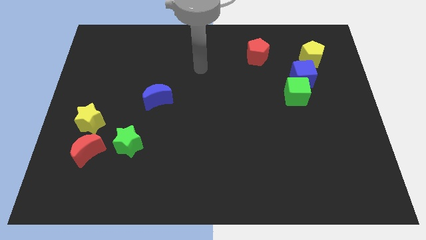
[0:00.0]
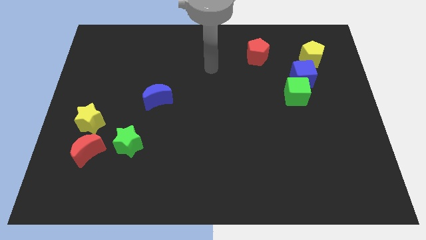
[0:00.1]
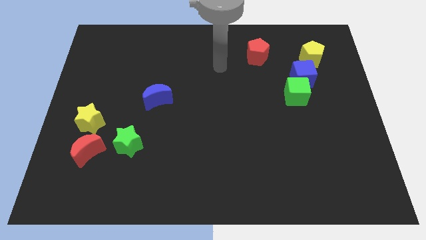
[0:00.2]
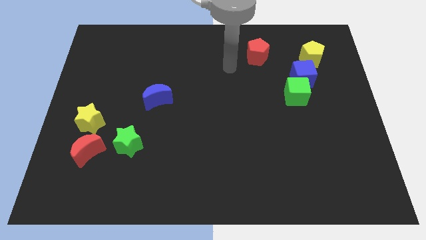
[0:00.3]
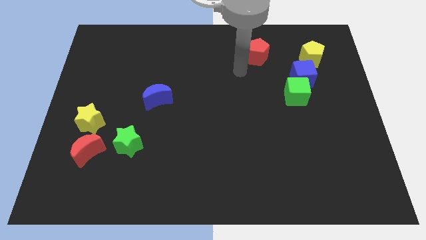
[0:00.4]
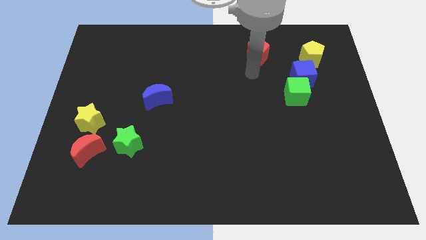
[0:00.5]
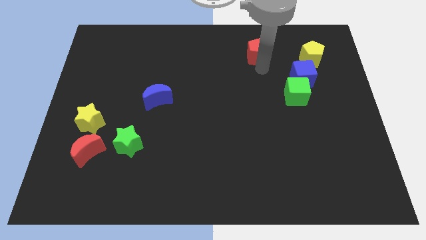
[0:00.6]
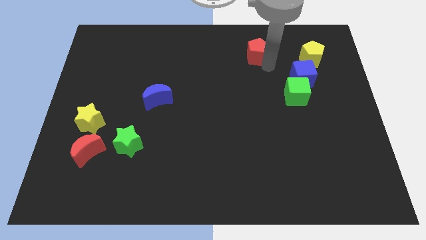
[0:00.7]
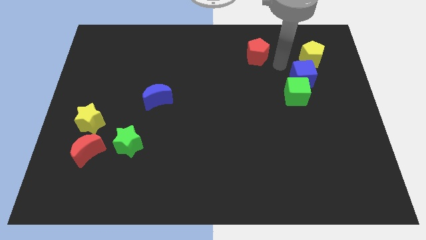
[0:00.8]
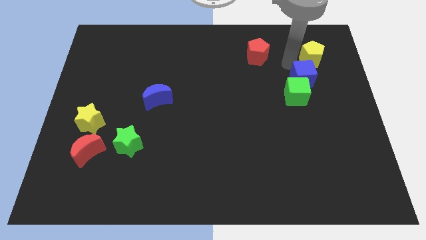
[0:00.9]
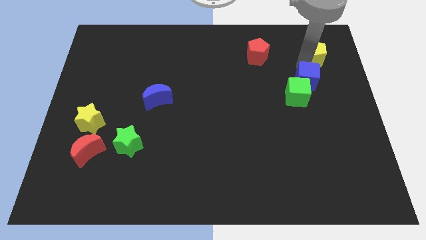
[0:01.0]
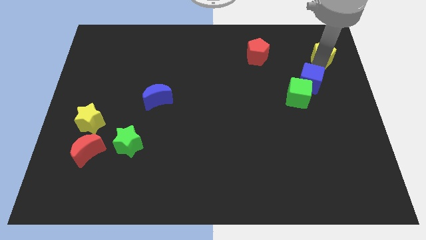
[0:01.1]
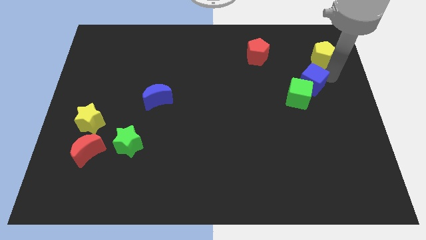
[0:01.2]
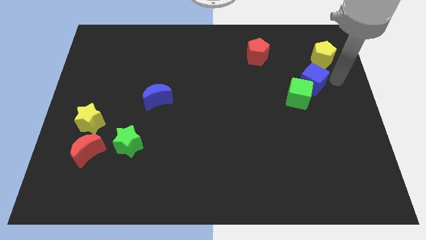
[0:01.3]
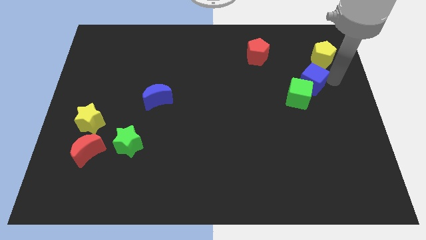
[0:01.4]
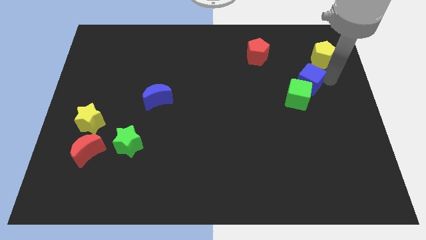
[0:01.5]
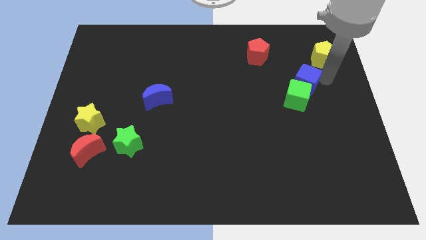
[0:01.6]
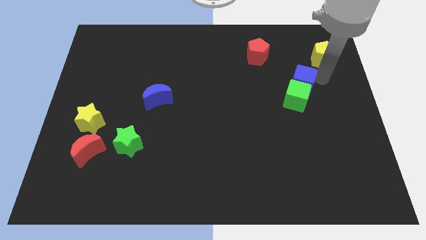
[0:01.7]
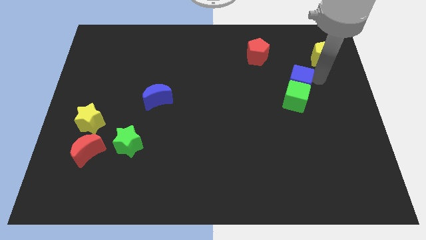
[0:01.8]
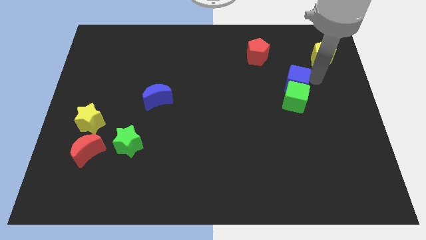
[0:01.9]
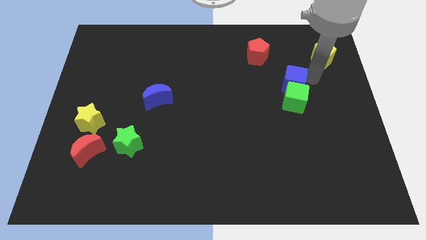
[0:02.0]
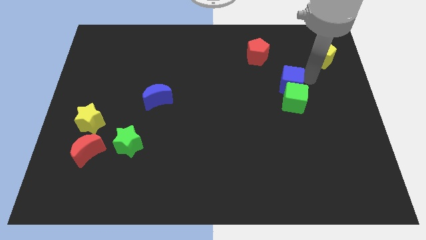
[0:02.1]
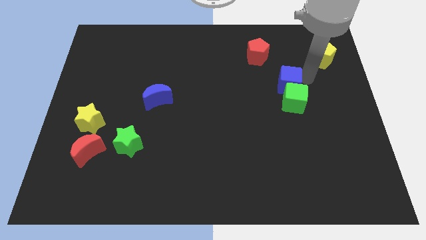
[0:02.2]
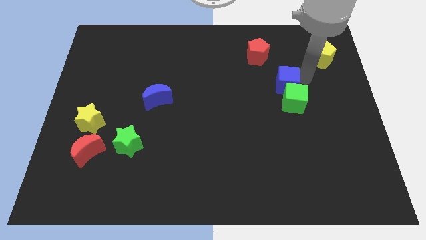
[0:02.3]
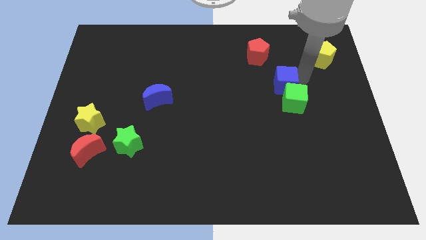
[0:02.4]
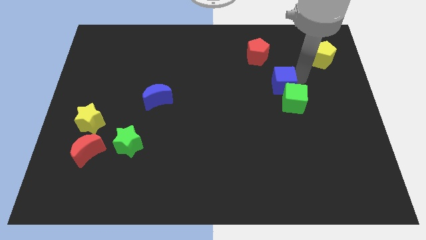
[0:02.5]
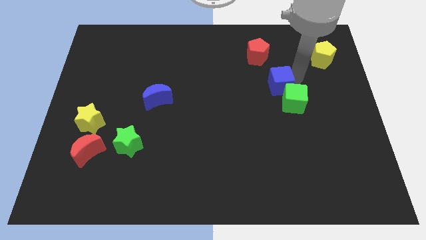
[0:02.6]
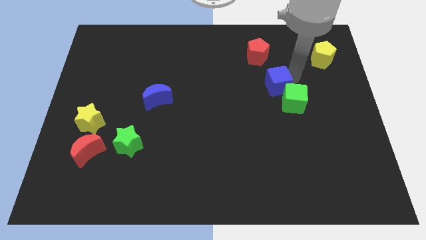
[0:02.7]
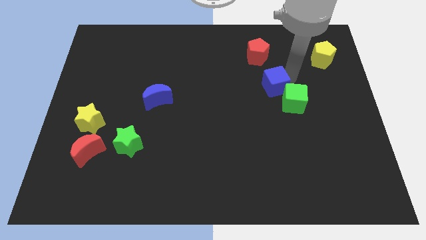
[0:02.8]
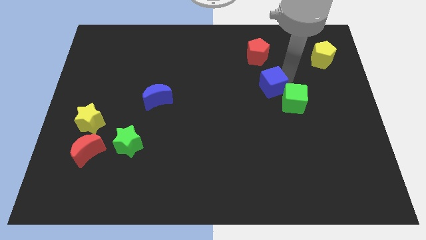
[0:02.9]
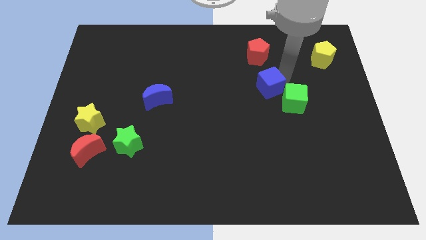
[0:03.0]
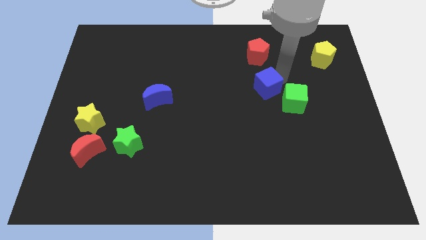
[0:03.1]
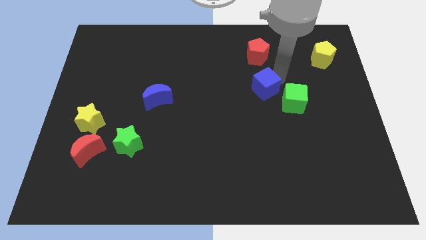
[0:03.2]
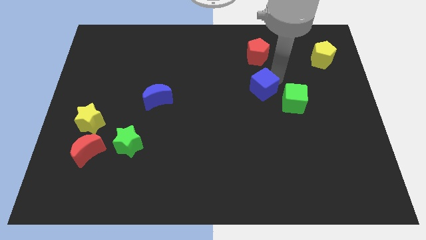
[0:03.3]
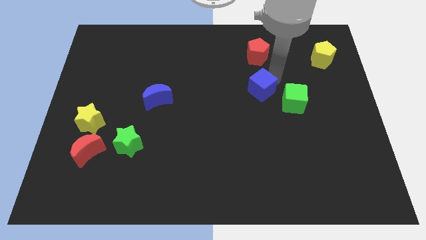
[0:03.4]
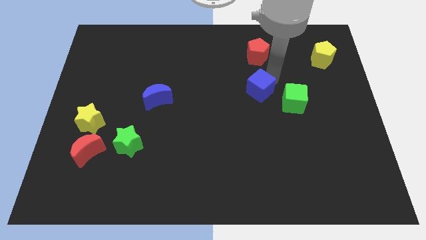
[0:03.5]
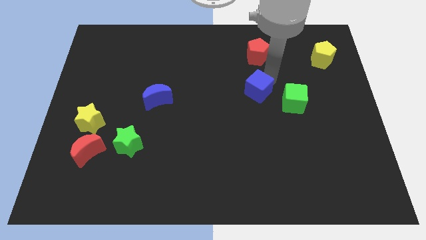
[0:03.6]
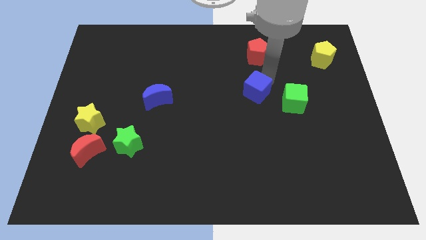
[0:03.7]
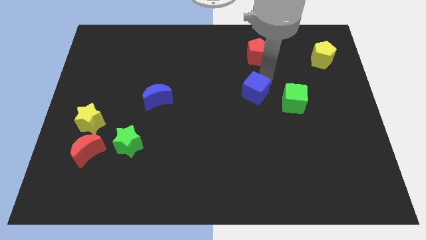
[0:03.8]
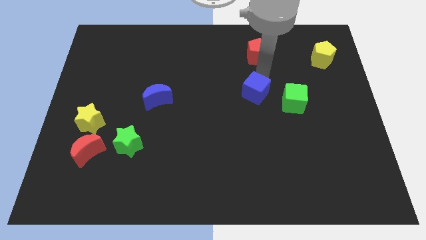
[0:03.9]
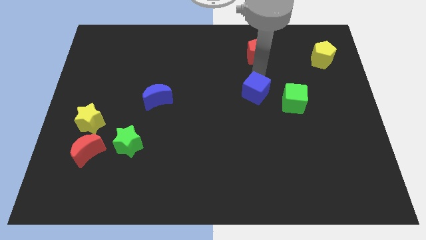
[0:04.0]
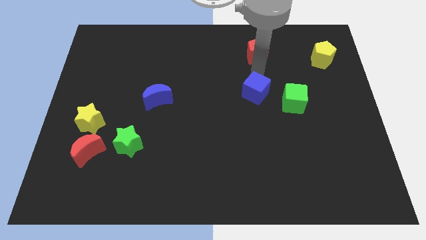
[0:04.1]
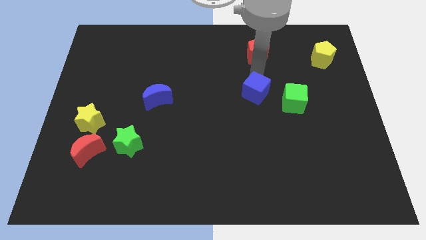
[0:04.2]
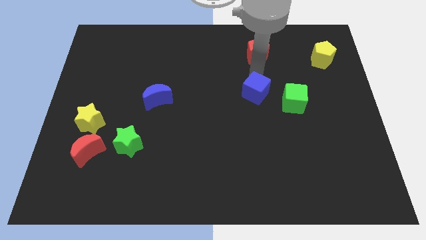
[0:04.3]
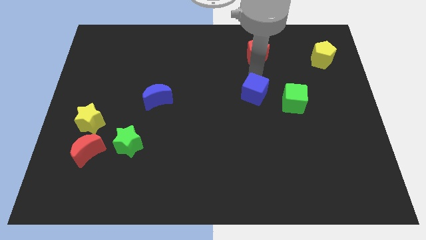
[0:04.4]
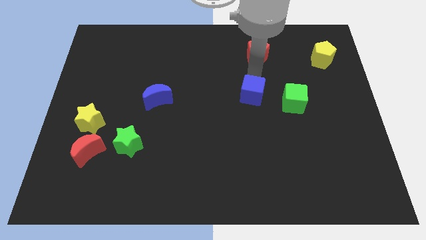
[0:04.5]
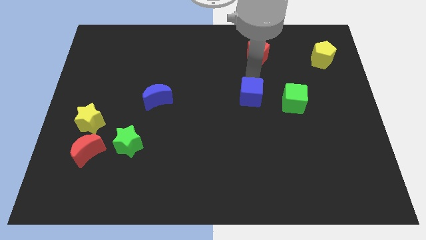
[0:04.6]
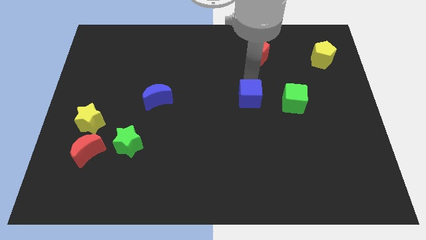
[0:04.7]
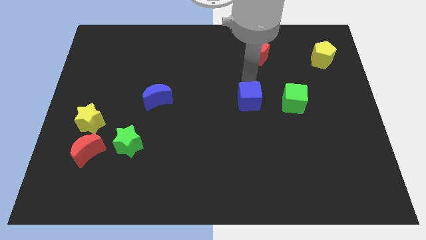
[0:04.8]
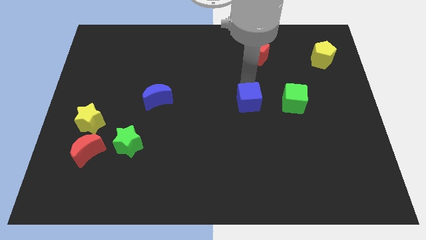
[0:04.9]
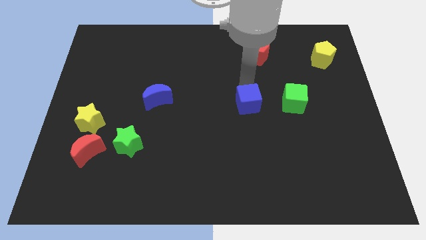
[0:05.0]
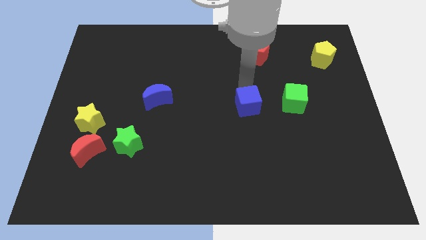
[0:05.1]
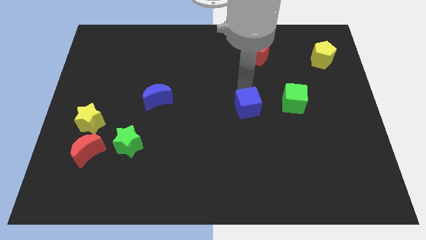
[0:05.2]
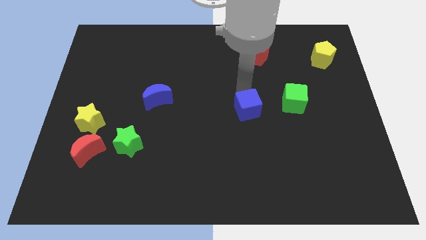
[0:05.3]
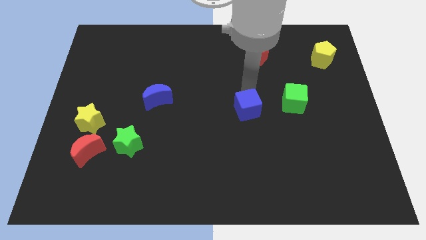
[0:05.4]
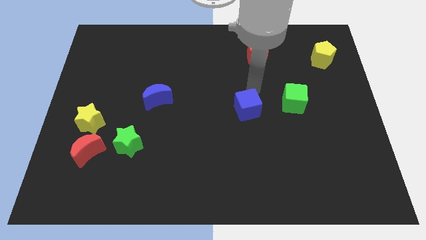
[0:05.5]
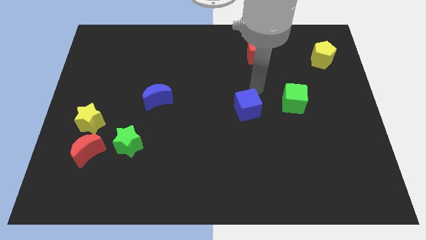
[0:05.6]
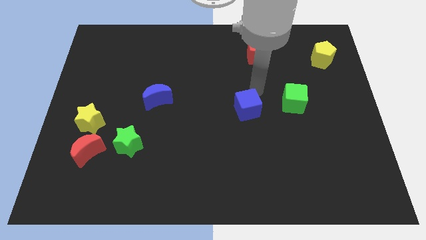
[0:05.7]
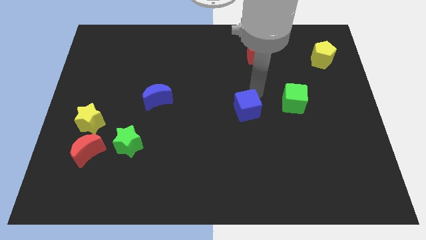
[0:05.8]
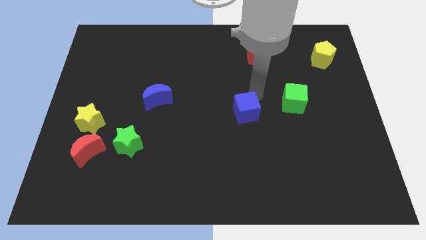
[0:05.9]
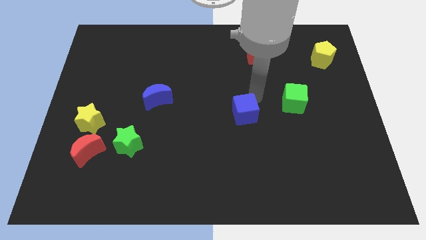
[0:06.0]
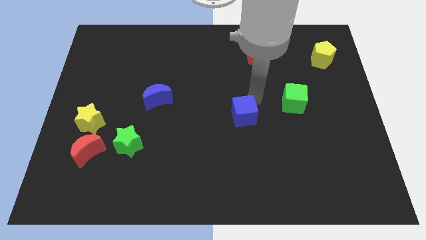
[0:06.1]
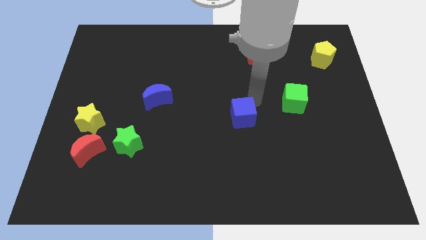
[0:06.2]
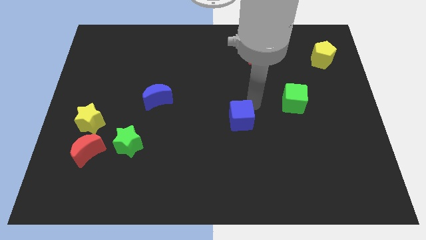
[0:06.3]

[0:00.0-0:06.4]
move the blue cube downwards and to the left

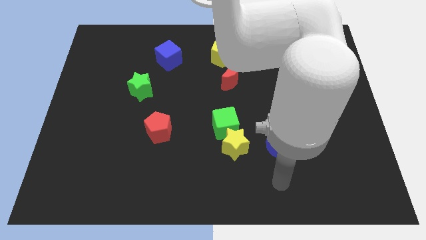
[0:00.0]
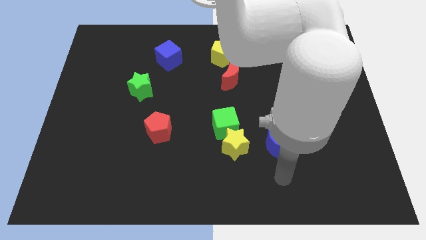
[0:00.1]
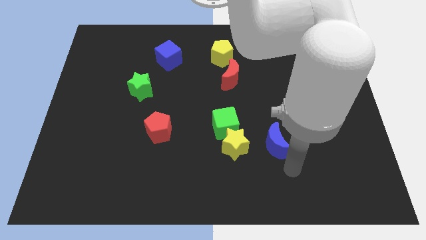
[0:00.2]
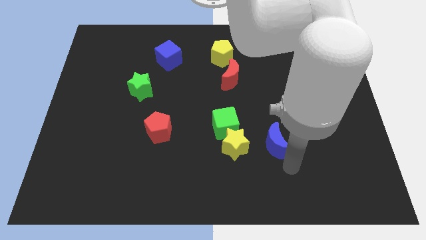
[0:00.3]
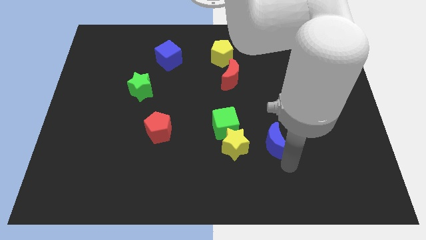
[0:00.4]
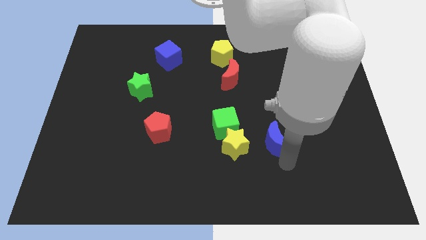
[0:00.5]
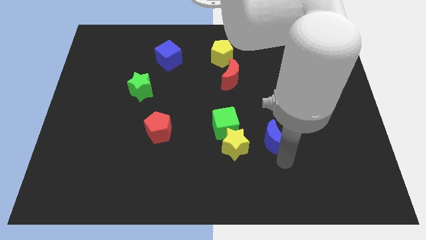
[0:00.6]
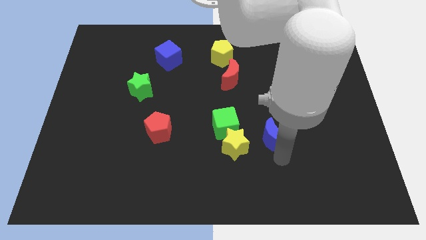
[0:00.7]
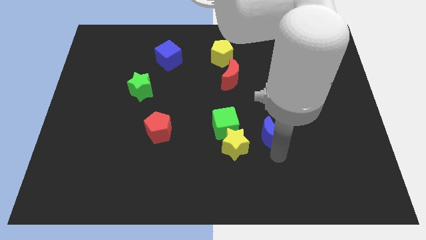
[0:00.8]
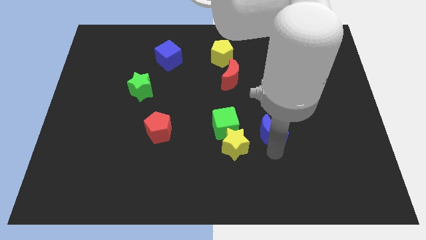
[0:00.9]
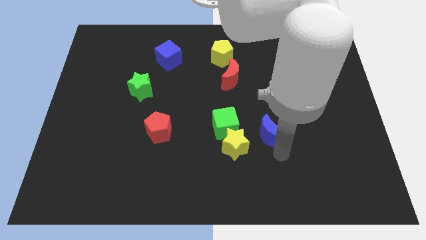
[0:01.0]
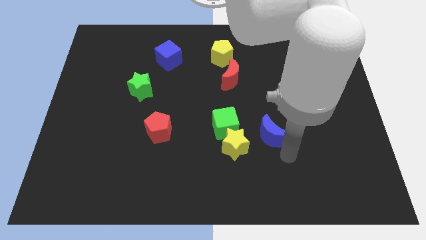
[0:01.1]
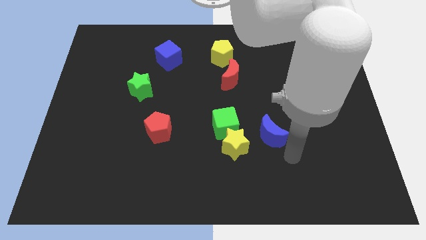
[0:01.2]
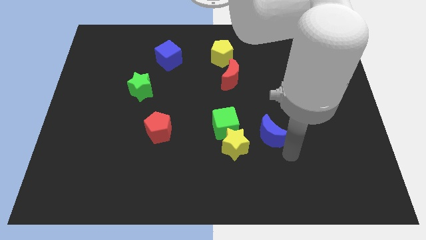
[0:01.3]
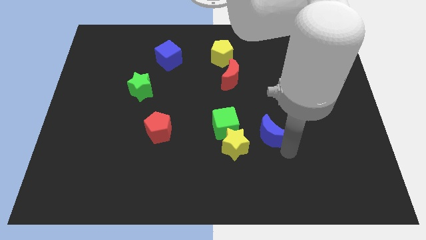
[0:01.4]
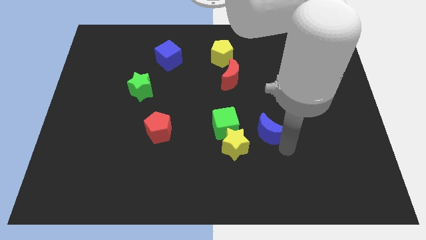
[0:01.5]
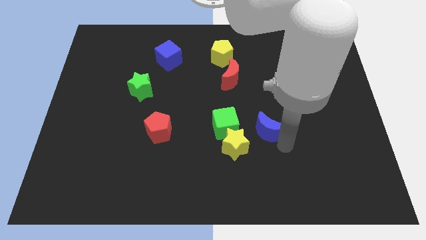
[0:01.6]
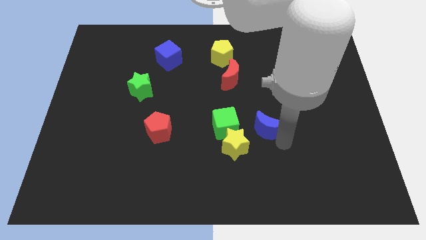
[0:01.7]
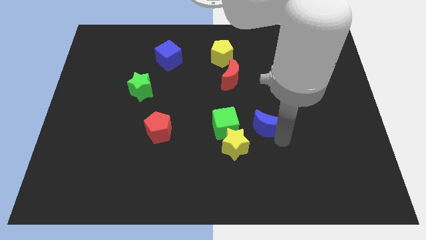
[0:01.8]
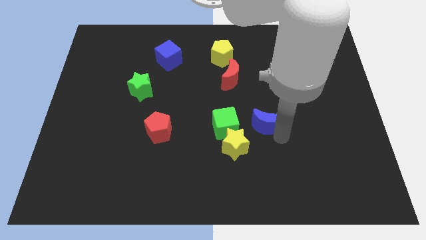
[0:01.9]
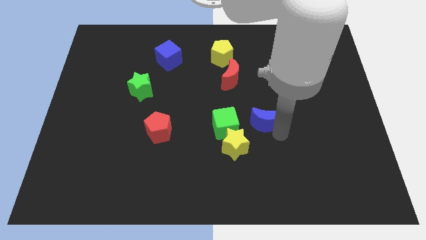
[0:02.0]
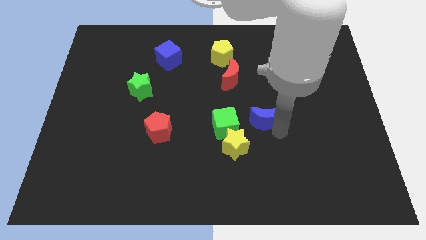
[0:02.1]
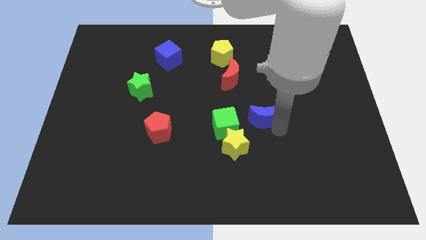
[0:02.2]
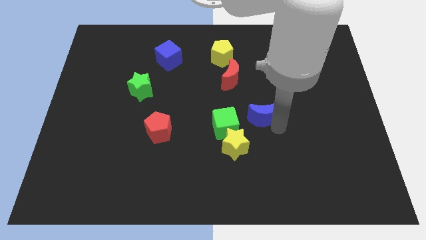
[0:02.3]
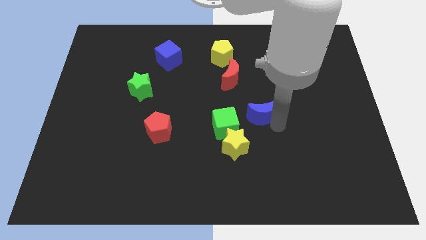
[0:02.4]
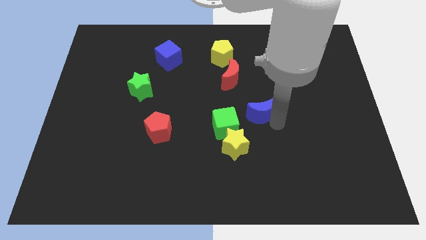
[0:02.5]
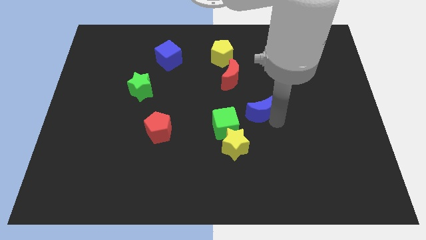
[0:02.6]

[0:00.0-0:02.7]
slide the blue moon upwards and to the left diagonally a little
